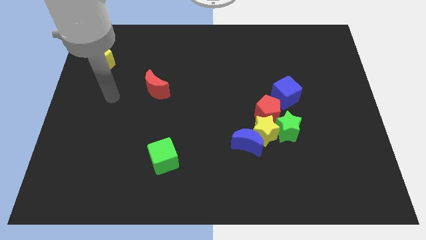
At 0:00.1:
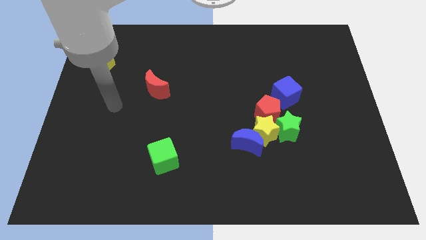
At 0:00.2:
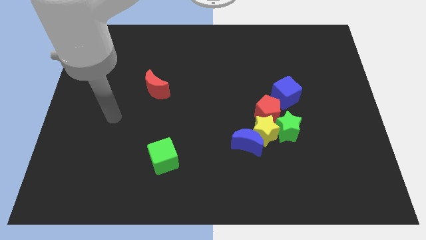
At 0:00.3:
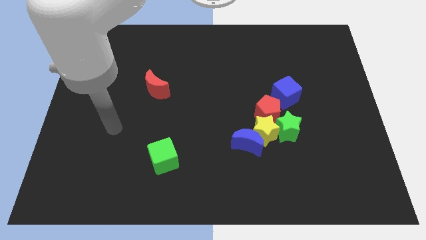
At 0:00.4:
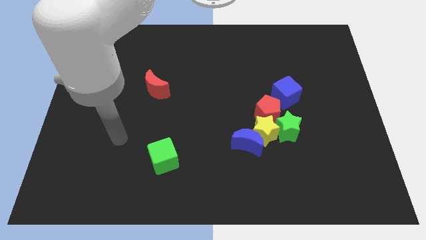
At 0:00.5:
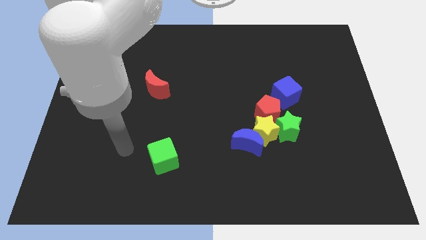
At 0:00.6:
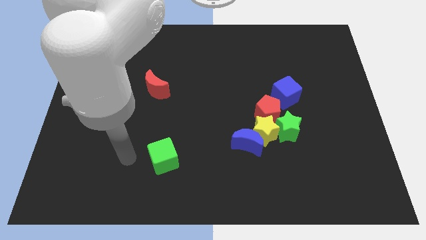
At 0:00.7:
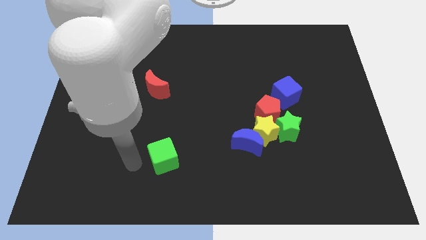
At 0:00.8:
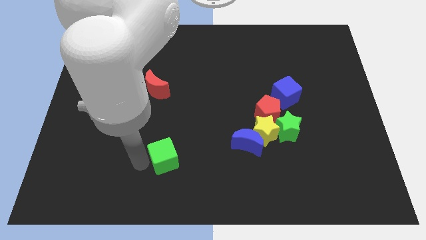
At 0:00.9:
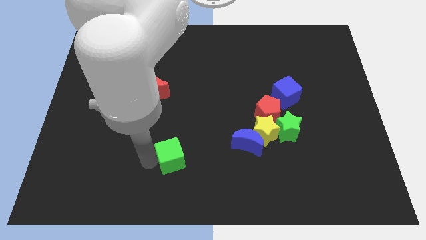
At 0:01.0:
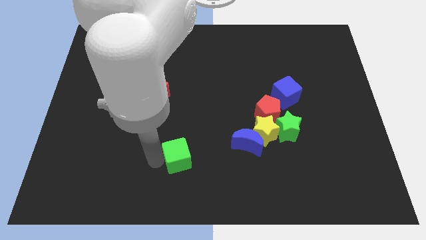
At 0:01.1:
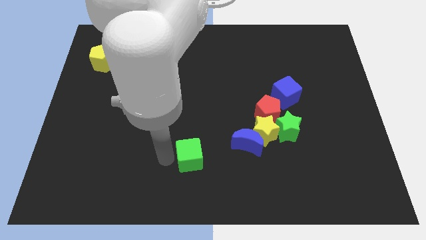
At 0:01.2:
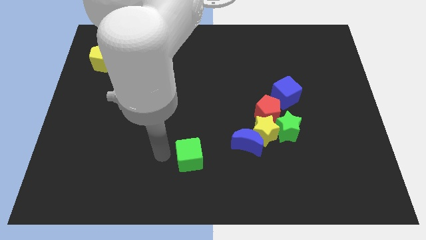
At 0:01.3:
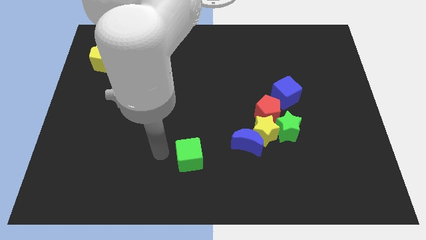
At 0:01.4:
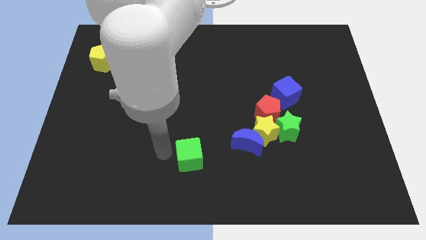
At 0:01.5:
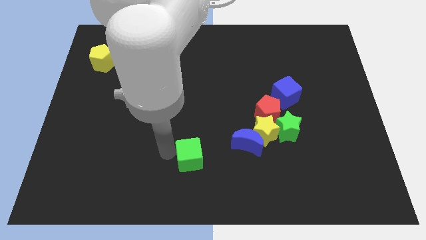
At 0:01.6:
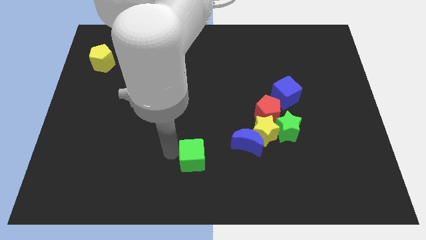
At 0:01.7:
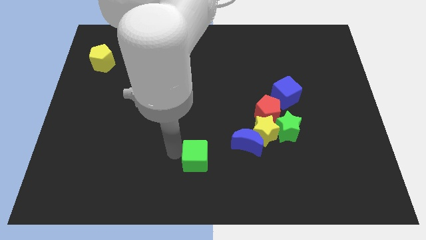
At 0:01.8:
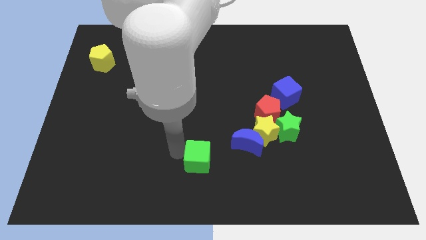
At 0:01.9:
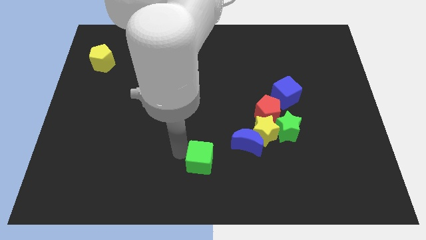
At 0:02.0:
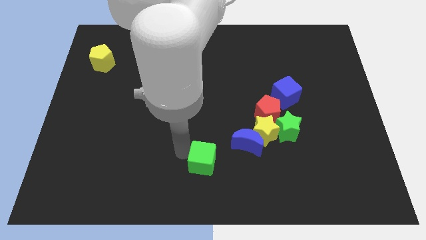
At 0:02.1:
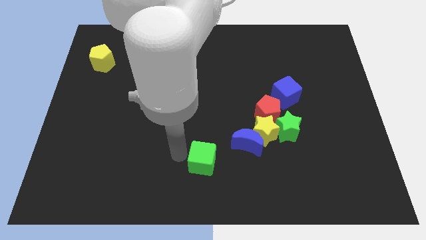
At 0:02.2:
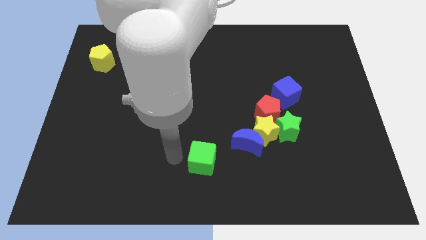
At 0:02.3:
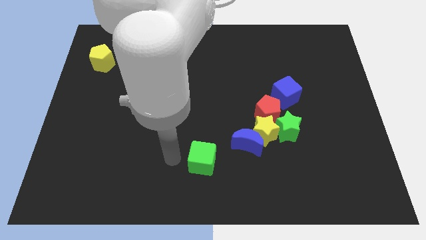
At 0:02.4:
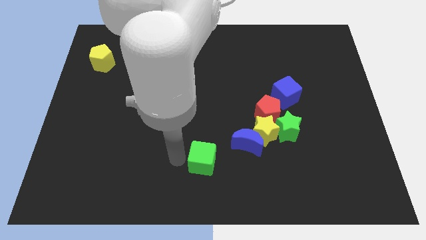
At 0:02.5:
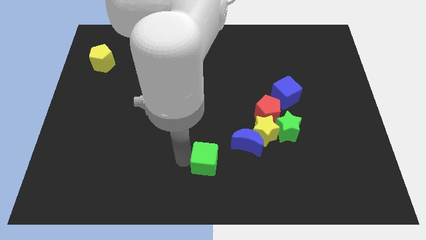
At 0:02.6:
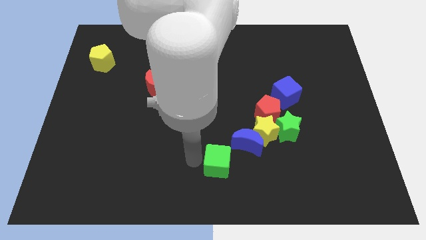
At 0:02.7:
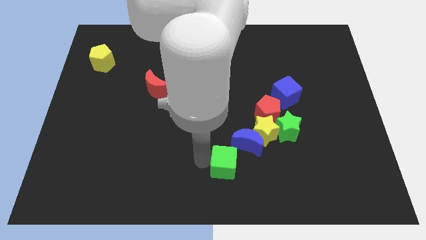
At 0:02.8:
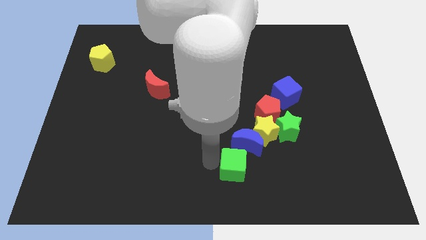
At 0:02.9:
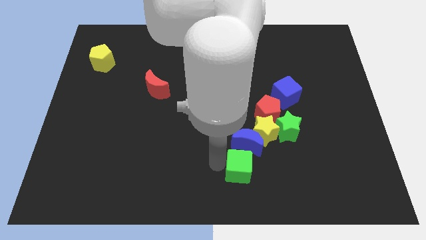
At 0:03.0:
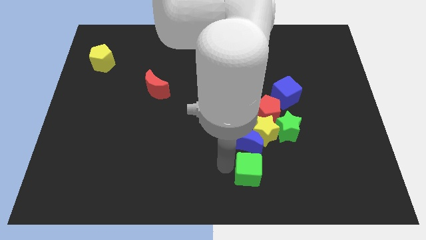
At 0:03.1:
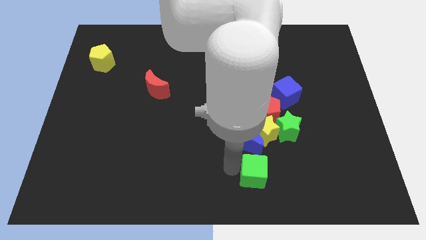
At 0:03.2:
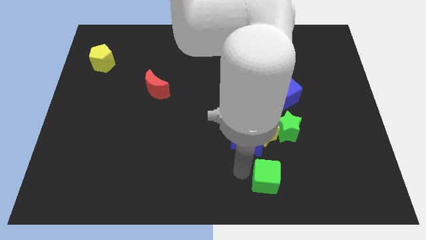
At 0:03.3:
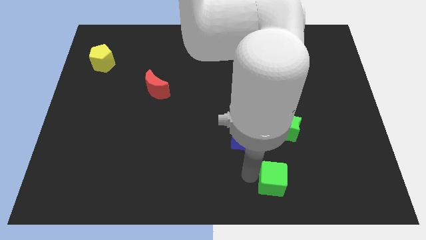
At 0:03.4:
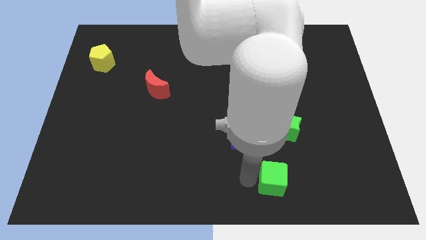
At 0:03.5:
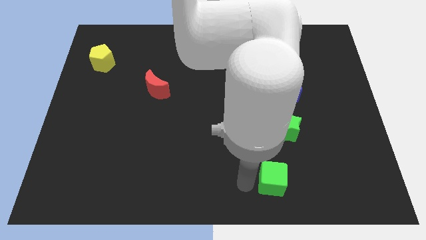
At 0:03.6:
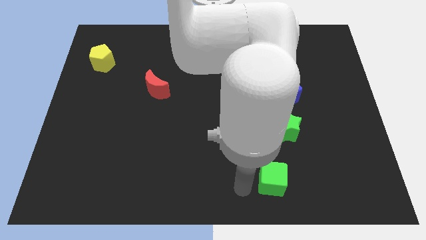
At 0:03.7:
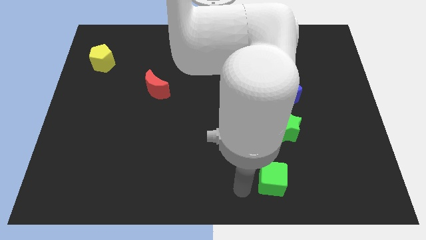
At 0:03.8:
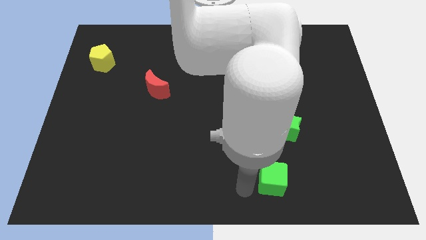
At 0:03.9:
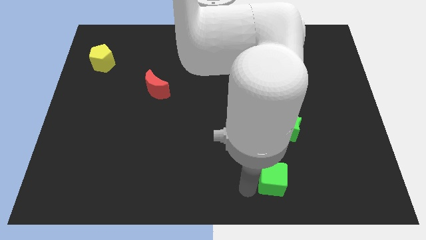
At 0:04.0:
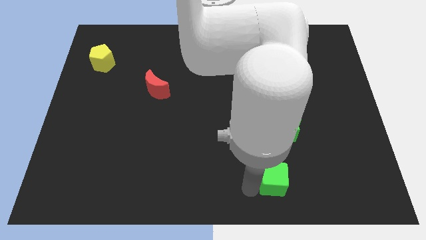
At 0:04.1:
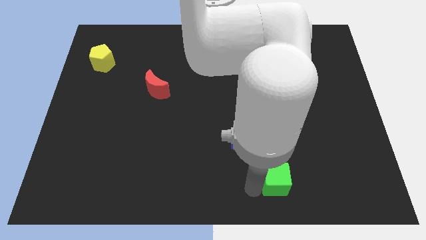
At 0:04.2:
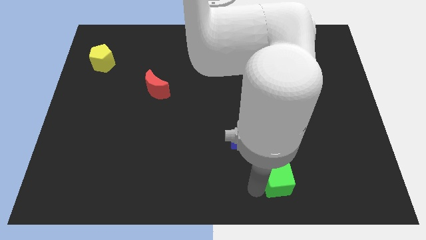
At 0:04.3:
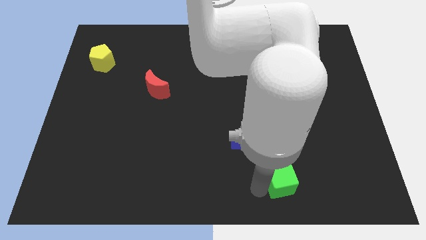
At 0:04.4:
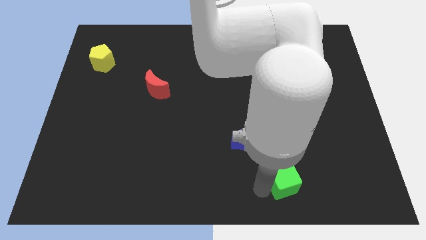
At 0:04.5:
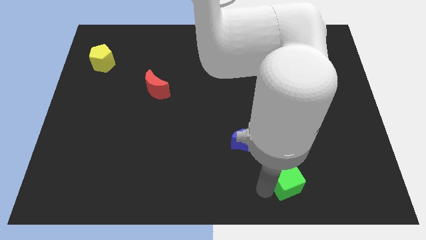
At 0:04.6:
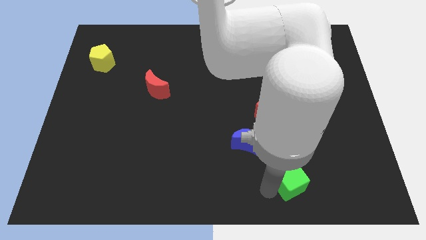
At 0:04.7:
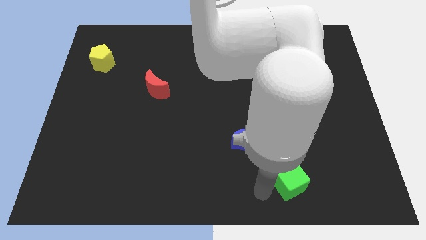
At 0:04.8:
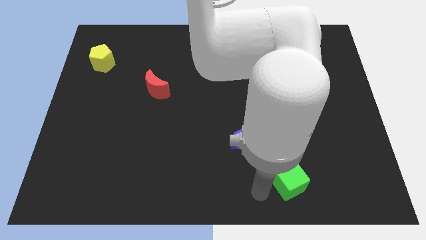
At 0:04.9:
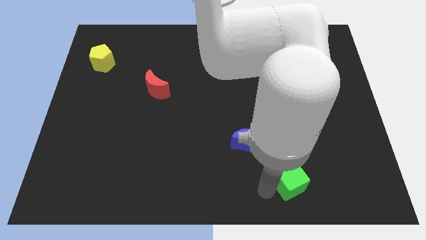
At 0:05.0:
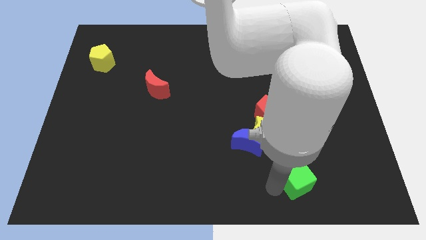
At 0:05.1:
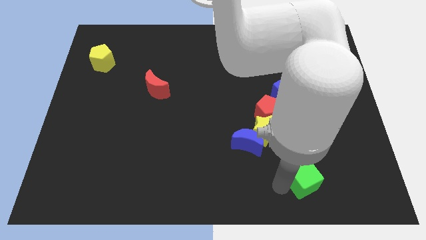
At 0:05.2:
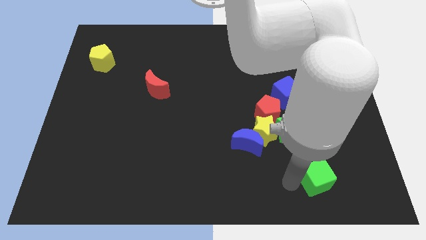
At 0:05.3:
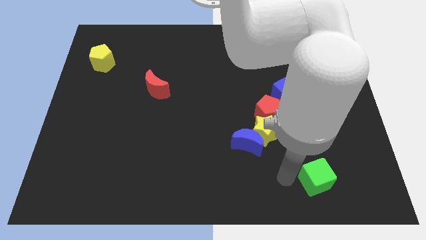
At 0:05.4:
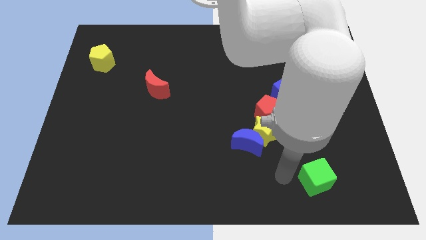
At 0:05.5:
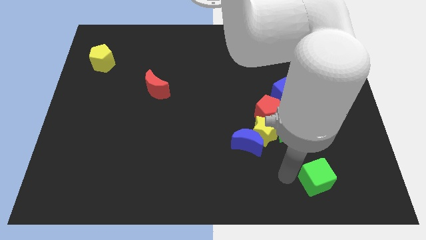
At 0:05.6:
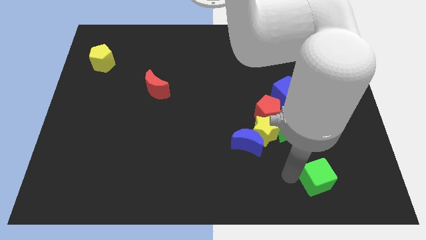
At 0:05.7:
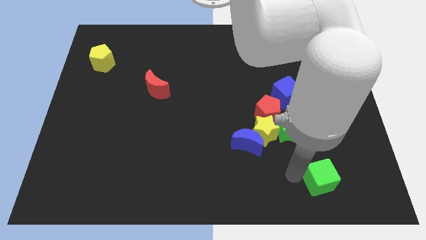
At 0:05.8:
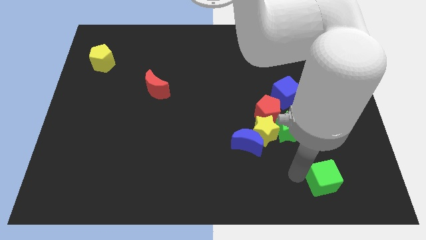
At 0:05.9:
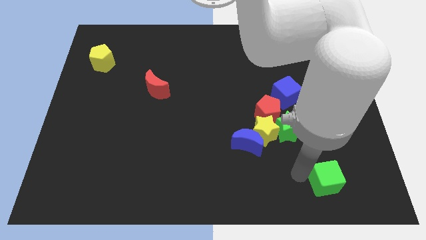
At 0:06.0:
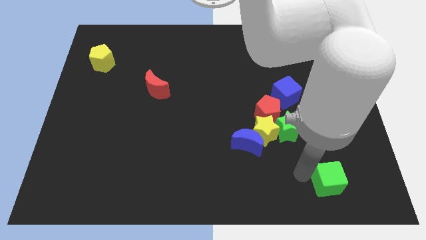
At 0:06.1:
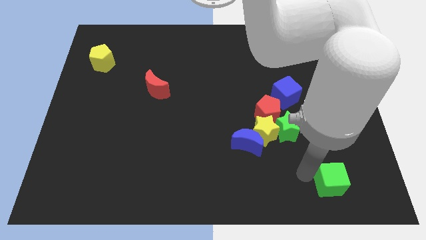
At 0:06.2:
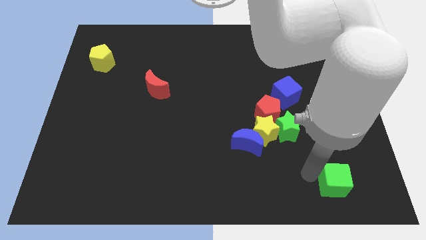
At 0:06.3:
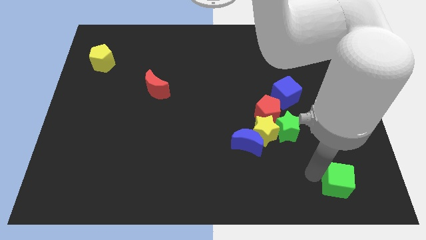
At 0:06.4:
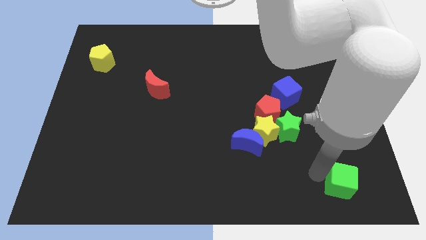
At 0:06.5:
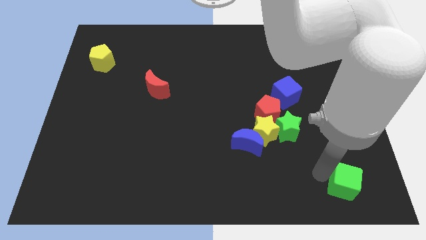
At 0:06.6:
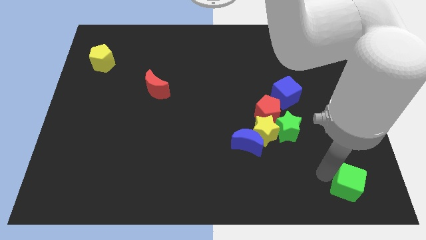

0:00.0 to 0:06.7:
move the green cube to the bottom right
